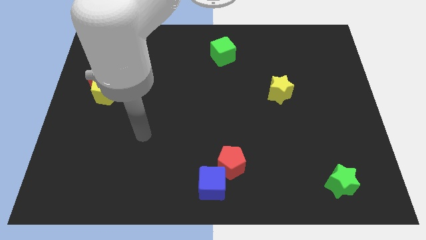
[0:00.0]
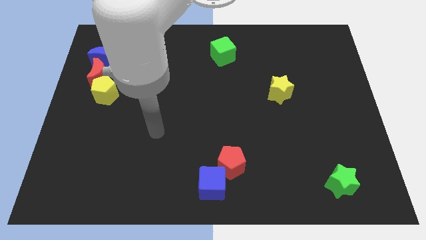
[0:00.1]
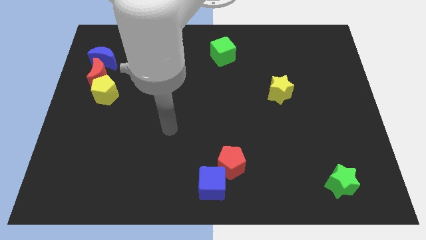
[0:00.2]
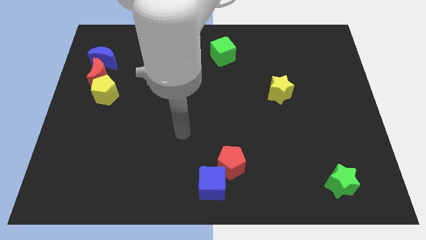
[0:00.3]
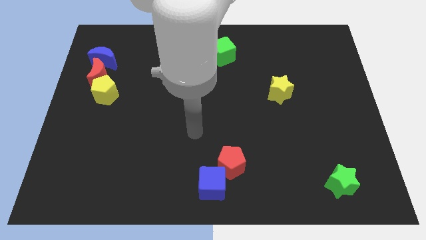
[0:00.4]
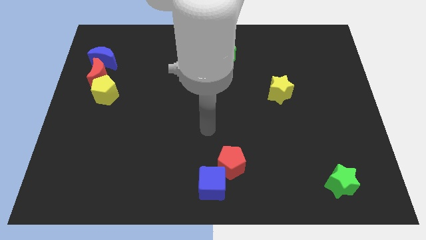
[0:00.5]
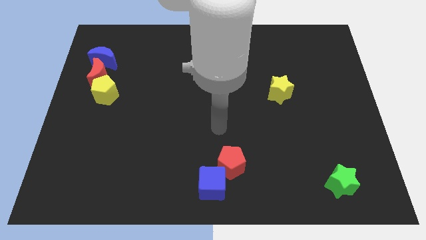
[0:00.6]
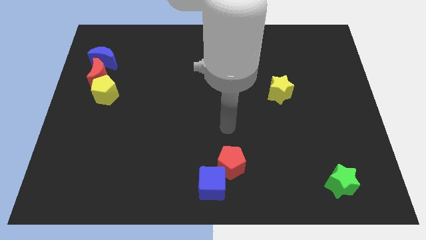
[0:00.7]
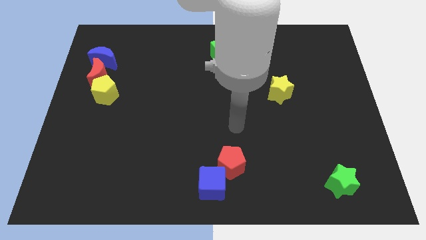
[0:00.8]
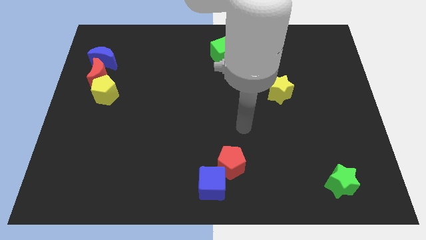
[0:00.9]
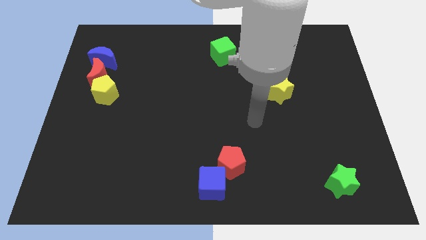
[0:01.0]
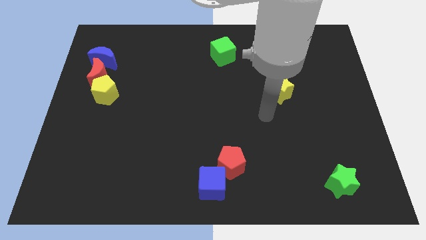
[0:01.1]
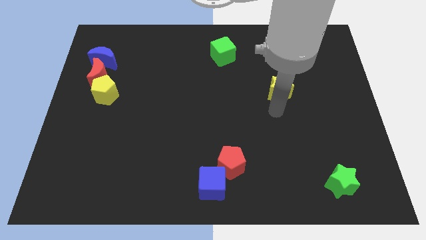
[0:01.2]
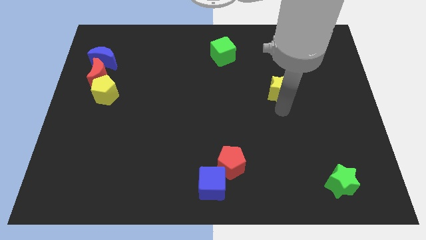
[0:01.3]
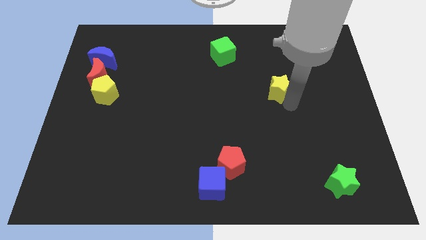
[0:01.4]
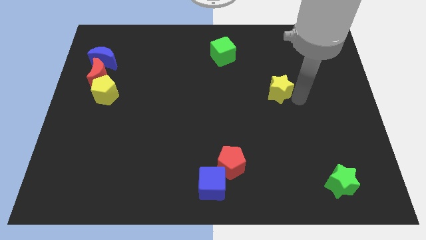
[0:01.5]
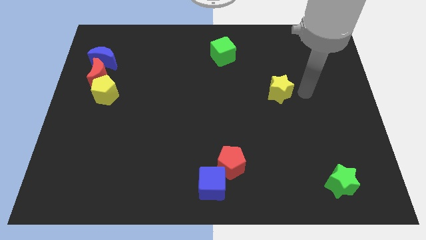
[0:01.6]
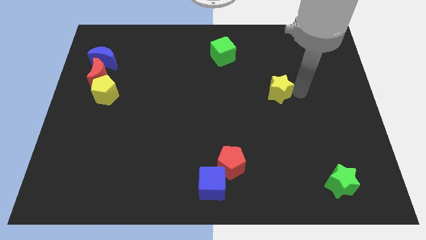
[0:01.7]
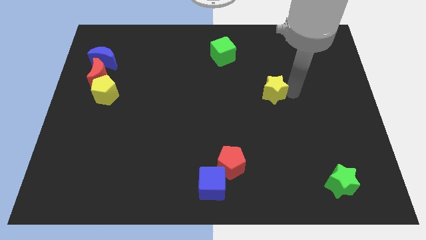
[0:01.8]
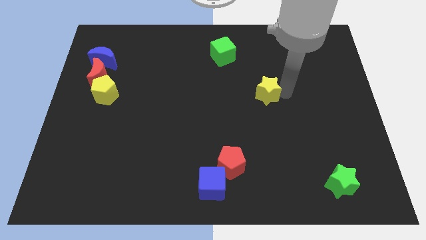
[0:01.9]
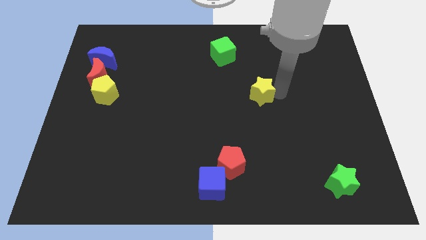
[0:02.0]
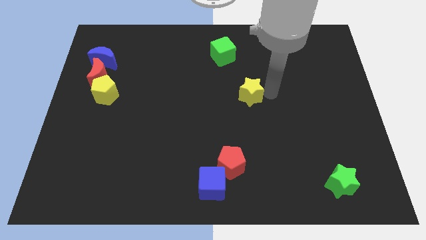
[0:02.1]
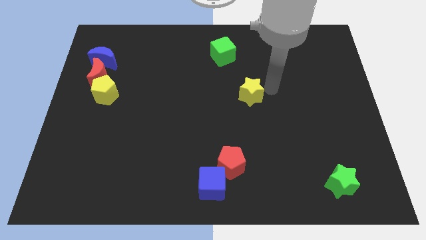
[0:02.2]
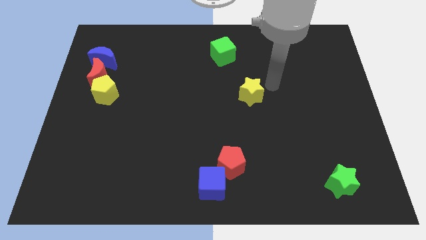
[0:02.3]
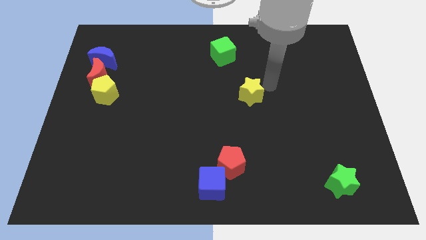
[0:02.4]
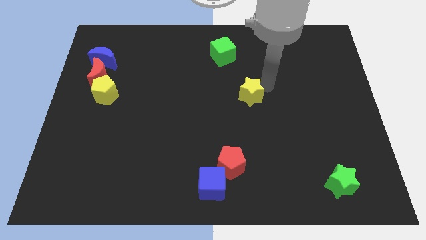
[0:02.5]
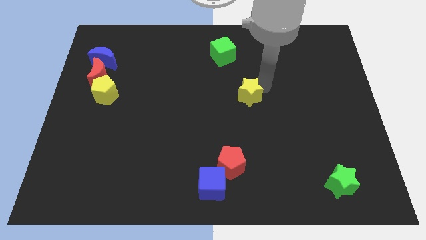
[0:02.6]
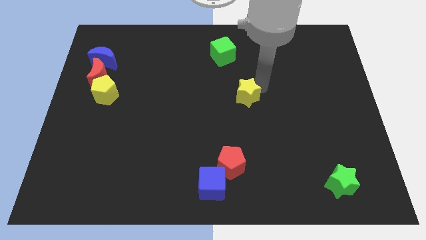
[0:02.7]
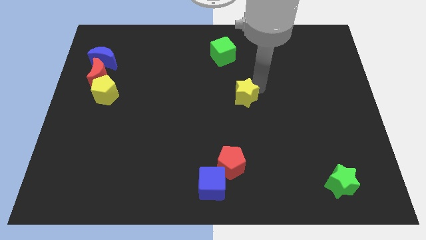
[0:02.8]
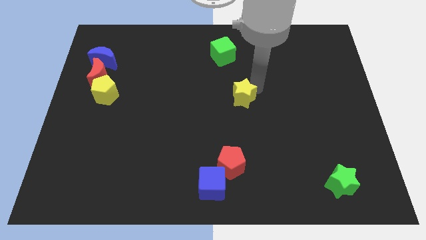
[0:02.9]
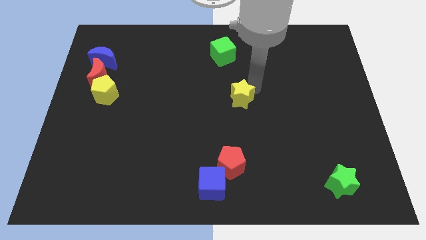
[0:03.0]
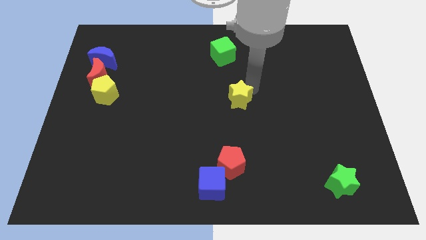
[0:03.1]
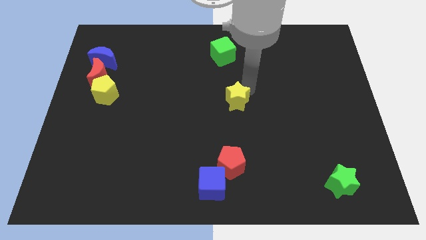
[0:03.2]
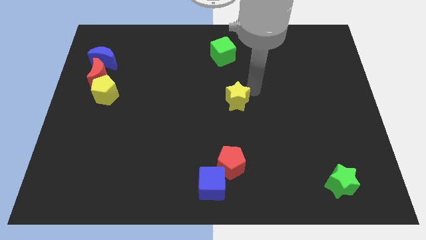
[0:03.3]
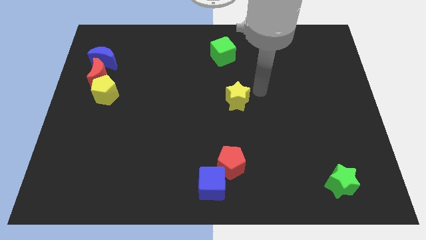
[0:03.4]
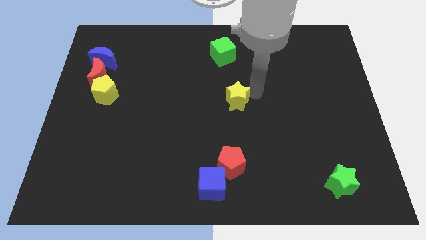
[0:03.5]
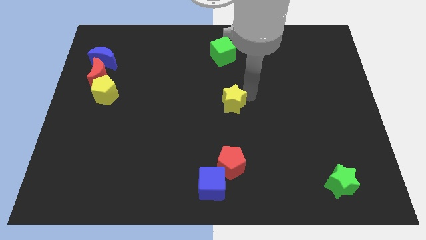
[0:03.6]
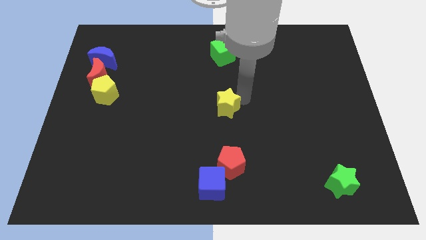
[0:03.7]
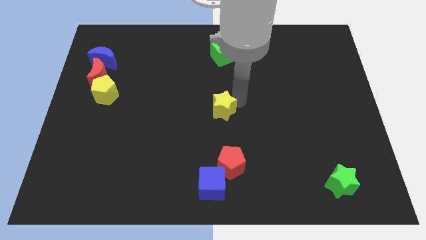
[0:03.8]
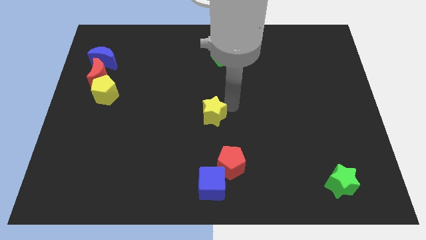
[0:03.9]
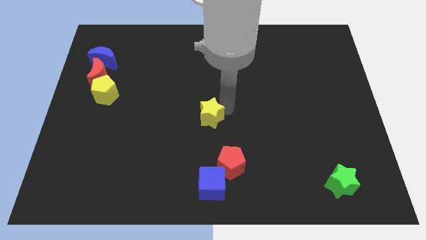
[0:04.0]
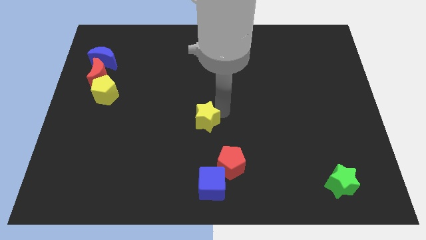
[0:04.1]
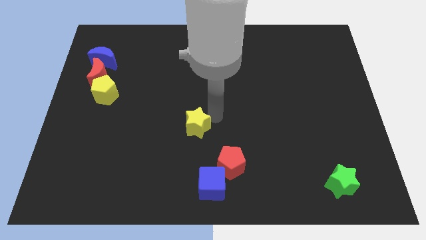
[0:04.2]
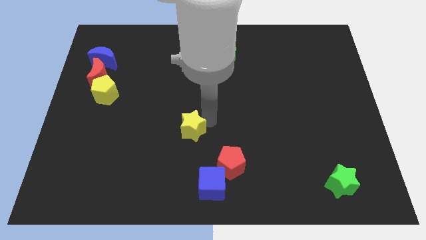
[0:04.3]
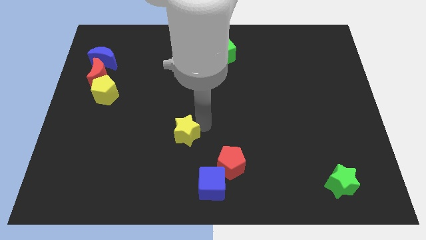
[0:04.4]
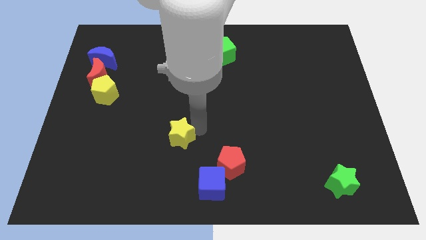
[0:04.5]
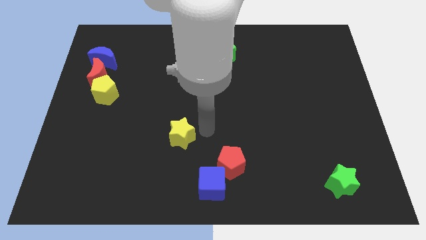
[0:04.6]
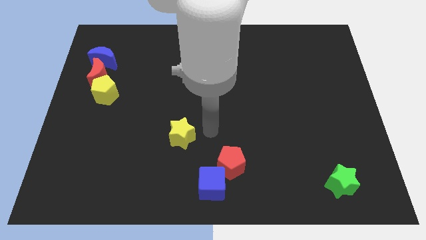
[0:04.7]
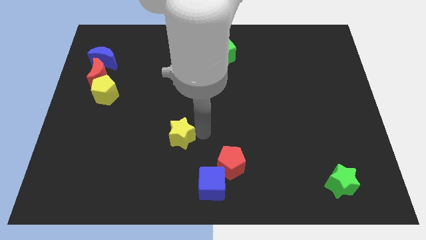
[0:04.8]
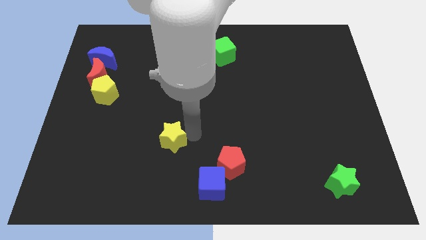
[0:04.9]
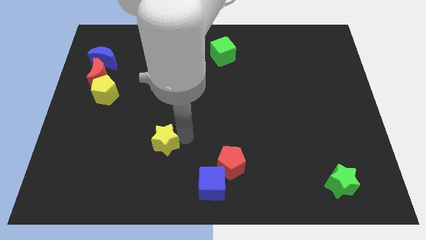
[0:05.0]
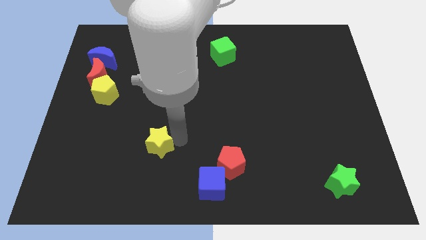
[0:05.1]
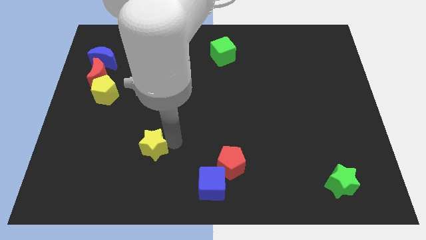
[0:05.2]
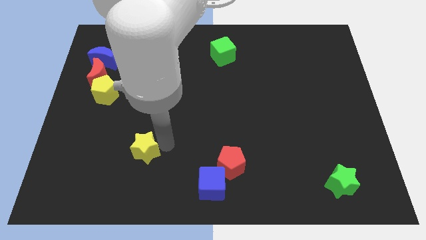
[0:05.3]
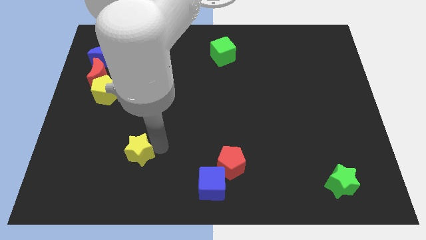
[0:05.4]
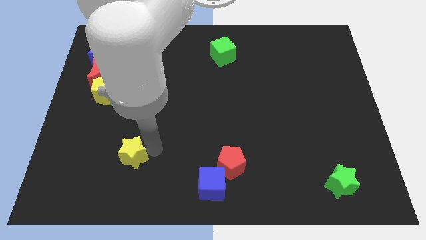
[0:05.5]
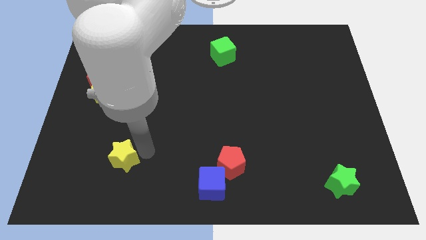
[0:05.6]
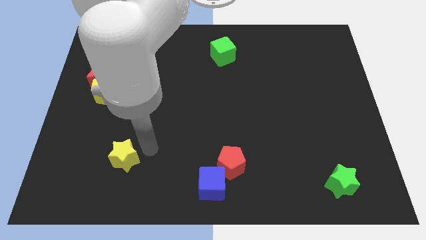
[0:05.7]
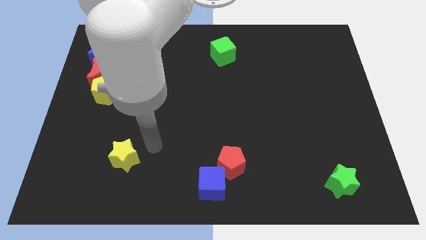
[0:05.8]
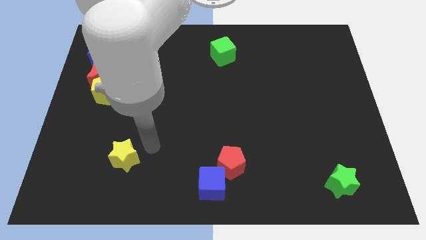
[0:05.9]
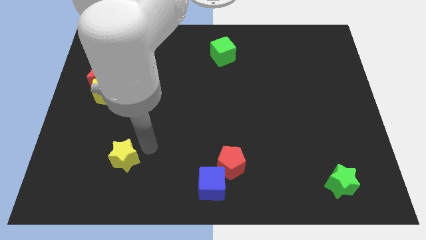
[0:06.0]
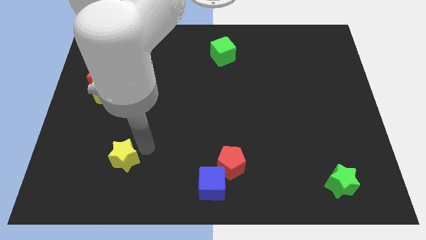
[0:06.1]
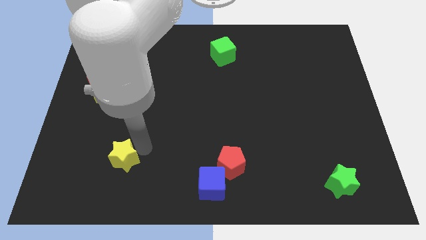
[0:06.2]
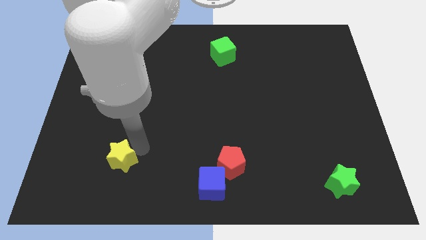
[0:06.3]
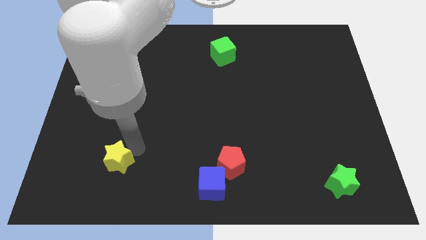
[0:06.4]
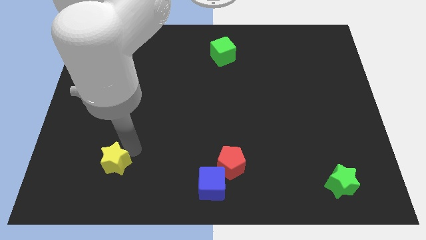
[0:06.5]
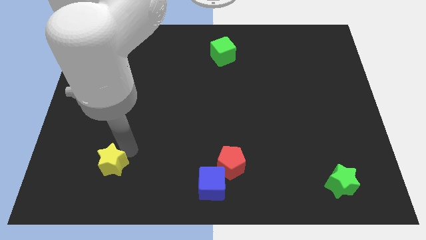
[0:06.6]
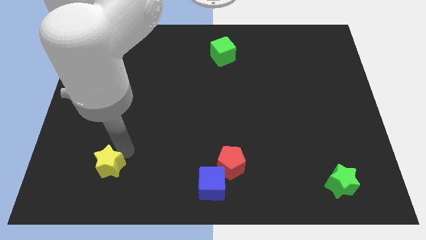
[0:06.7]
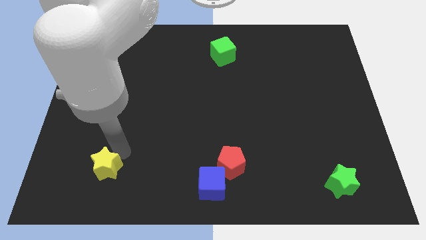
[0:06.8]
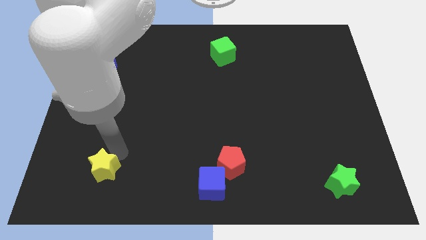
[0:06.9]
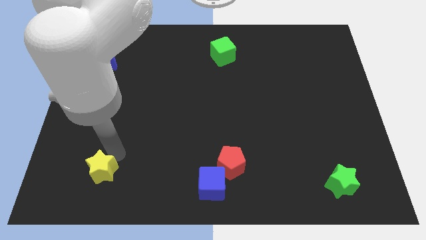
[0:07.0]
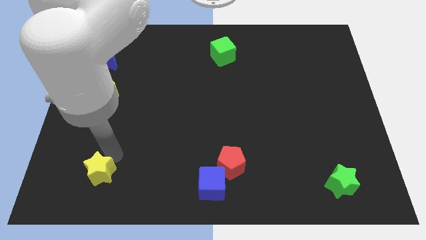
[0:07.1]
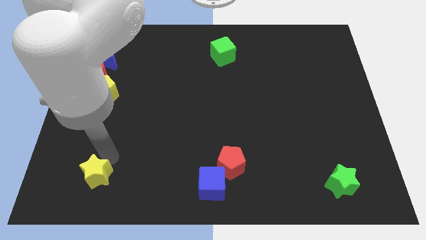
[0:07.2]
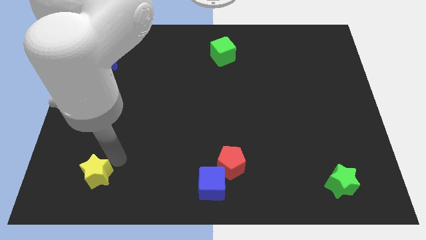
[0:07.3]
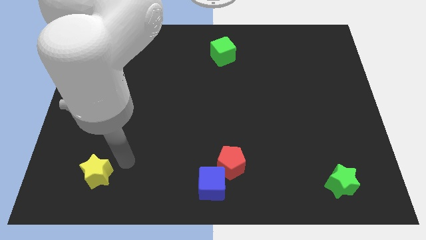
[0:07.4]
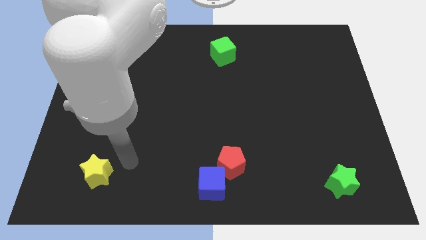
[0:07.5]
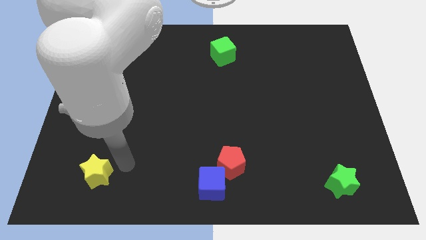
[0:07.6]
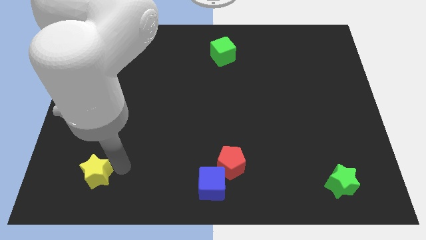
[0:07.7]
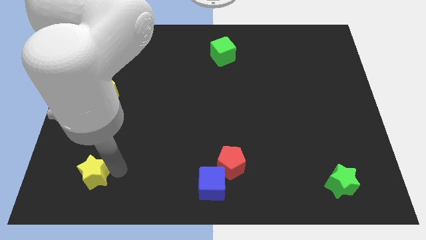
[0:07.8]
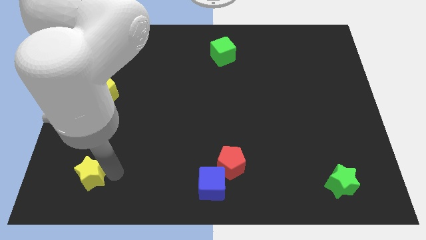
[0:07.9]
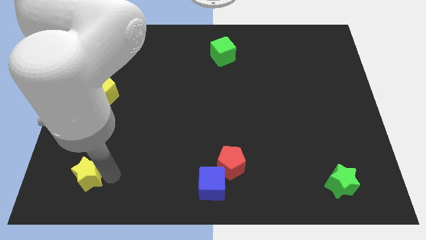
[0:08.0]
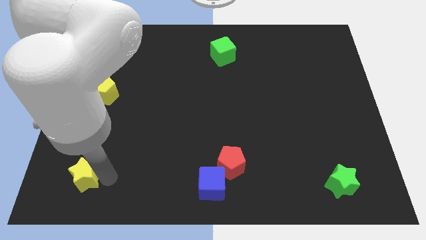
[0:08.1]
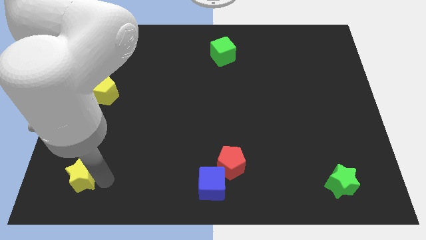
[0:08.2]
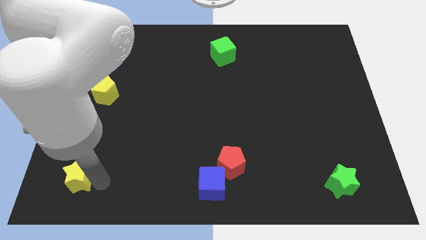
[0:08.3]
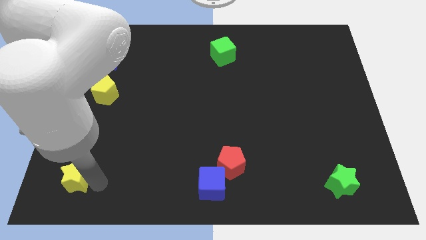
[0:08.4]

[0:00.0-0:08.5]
put the yellow star to the bottom left of the board
